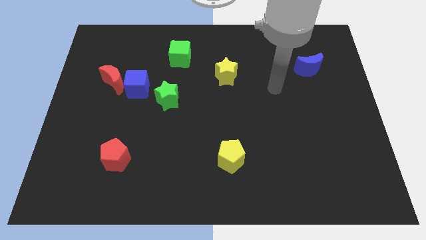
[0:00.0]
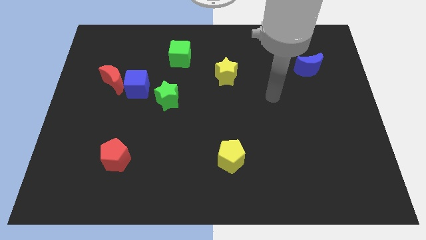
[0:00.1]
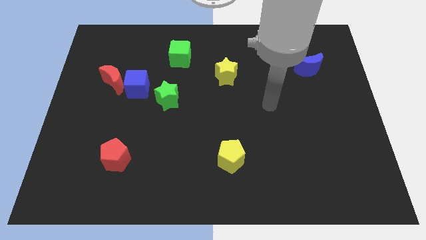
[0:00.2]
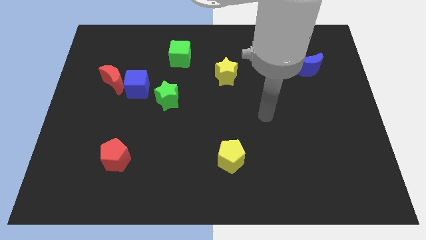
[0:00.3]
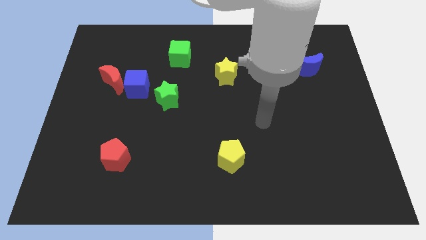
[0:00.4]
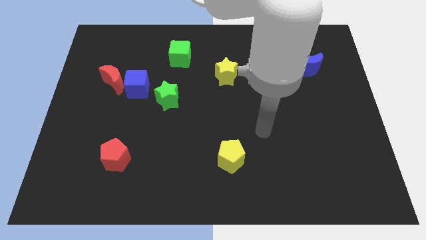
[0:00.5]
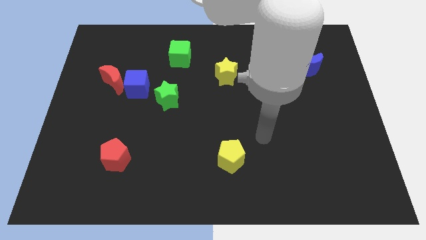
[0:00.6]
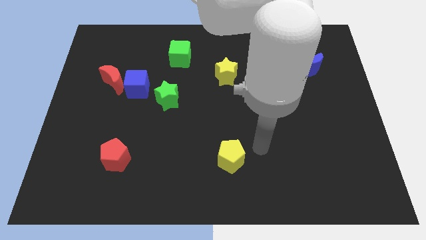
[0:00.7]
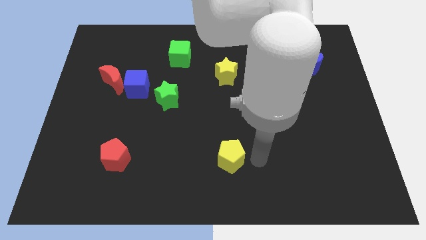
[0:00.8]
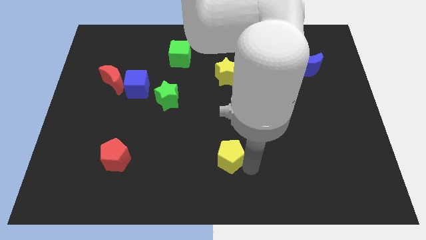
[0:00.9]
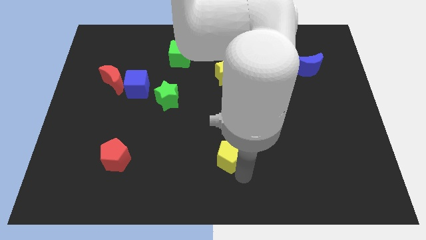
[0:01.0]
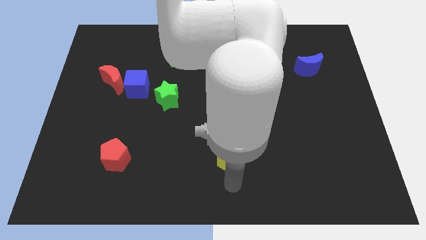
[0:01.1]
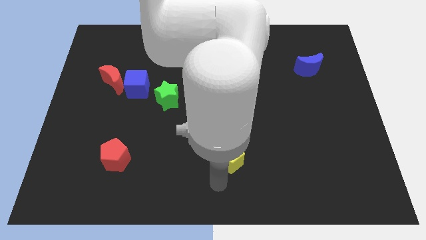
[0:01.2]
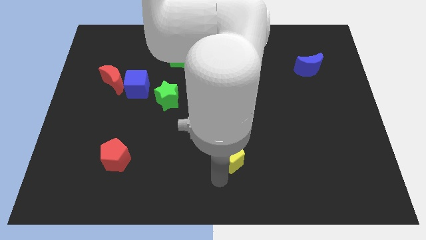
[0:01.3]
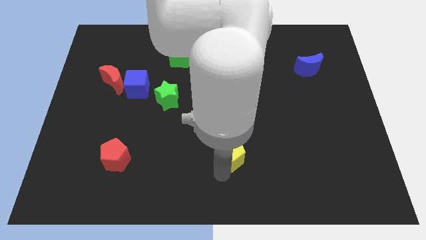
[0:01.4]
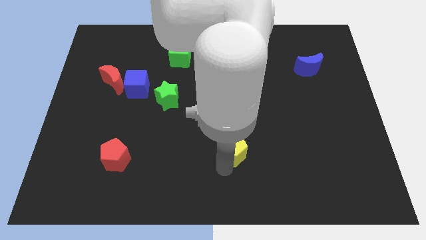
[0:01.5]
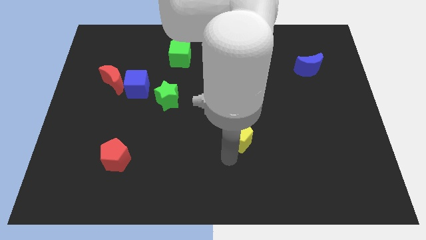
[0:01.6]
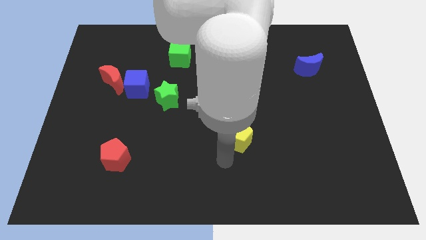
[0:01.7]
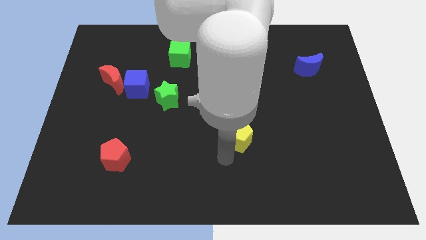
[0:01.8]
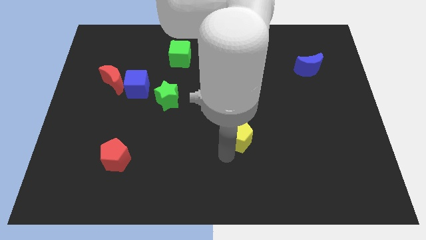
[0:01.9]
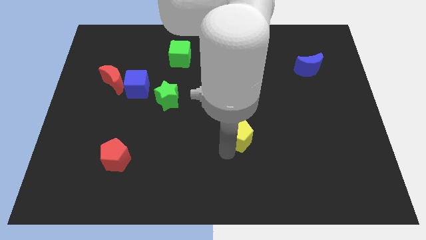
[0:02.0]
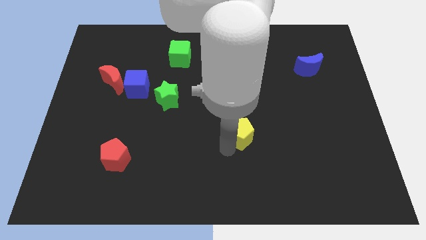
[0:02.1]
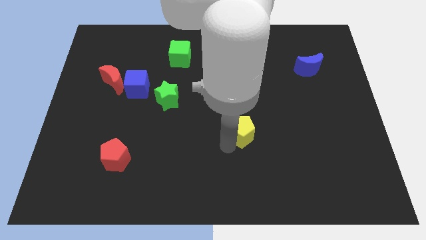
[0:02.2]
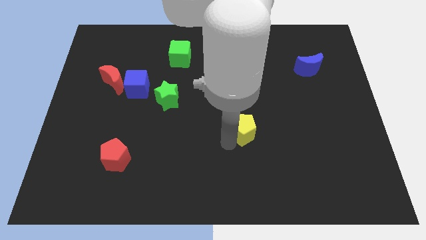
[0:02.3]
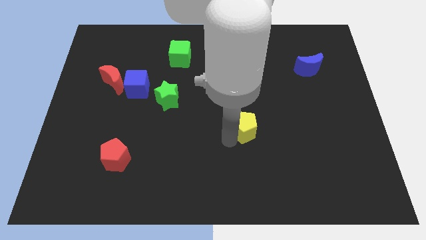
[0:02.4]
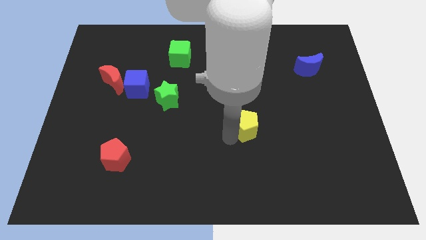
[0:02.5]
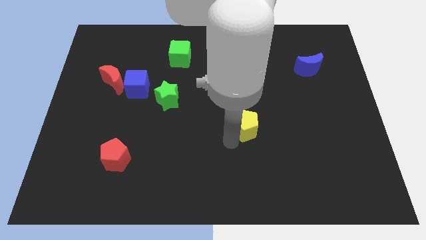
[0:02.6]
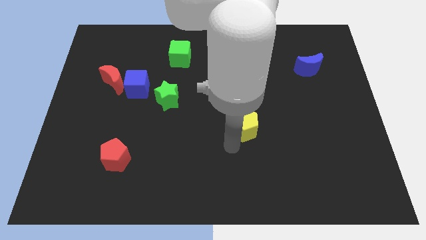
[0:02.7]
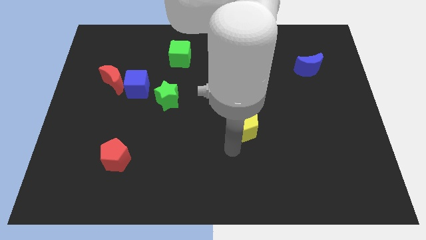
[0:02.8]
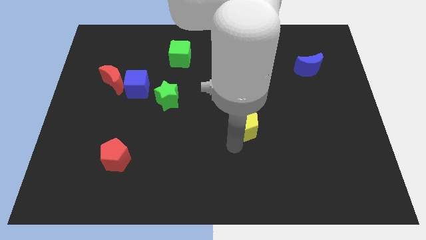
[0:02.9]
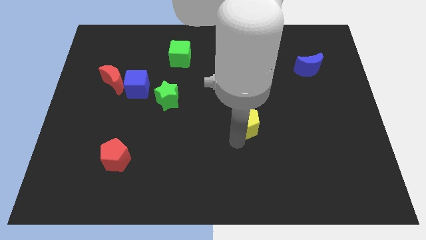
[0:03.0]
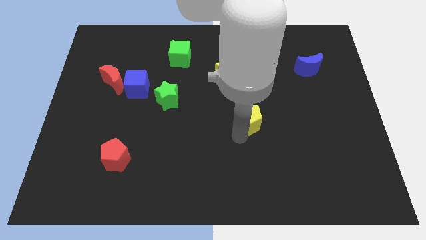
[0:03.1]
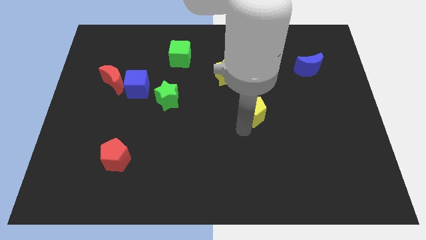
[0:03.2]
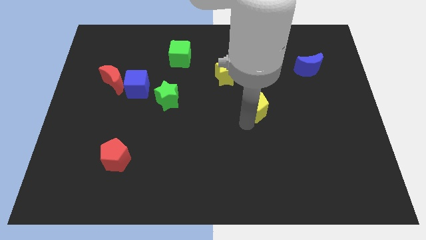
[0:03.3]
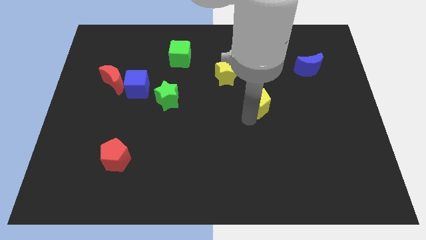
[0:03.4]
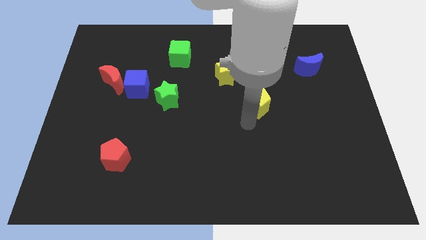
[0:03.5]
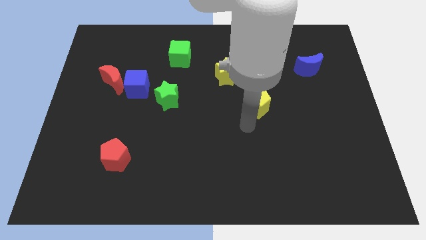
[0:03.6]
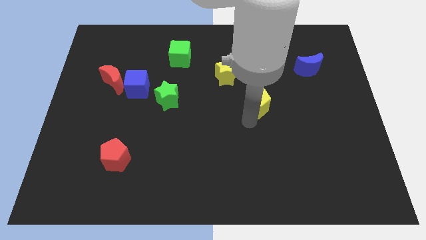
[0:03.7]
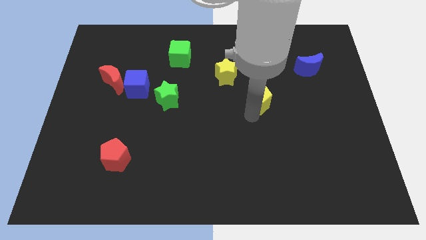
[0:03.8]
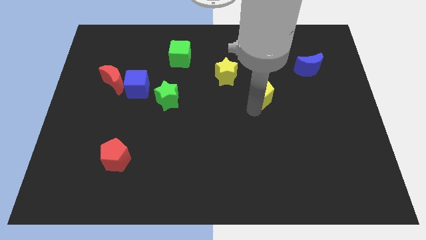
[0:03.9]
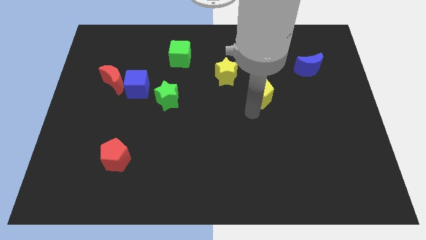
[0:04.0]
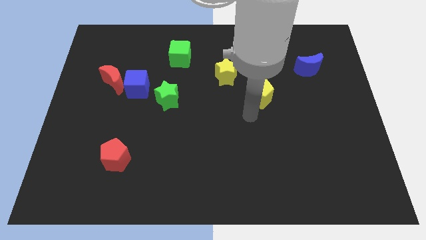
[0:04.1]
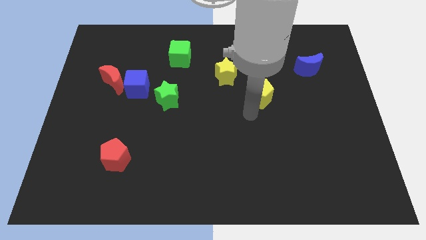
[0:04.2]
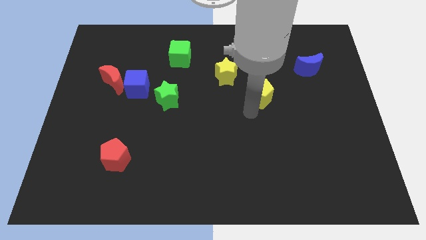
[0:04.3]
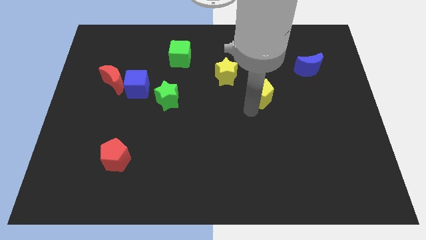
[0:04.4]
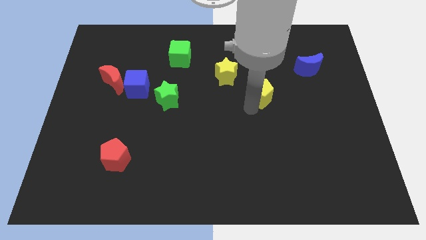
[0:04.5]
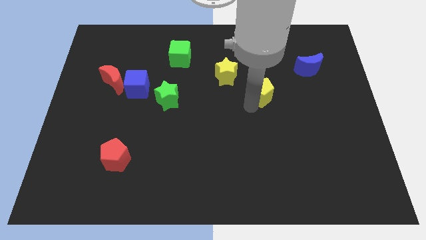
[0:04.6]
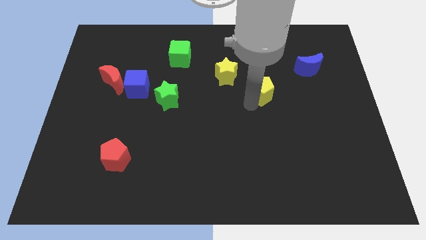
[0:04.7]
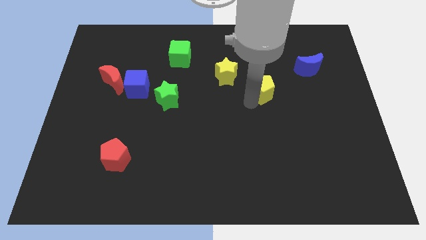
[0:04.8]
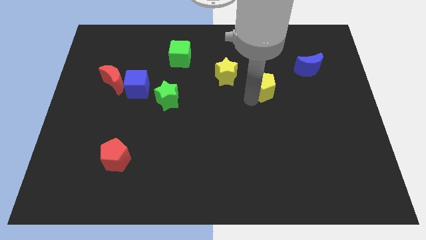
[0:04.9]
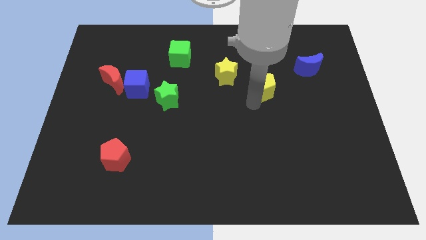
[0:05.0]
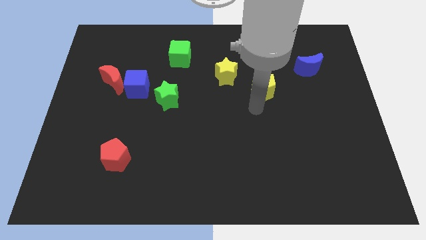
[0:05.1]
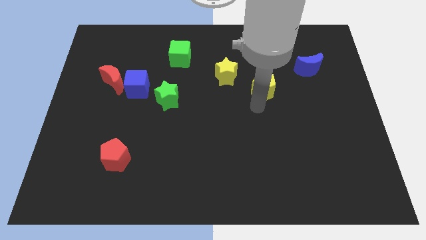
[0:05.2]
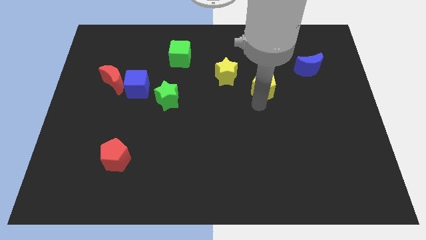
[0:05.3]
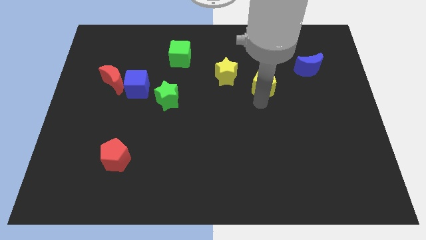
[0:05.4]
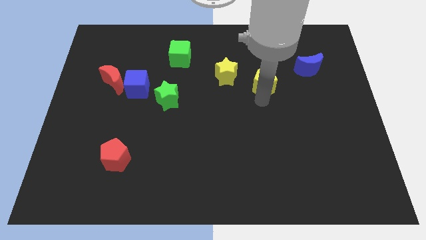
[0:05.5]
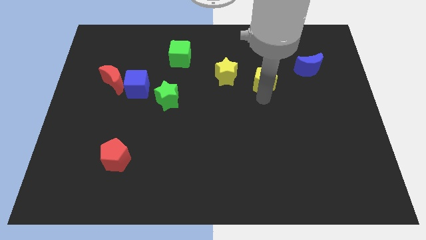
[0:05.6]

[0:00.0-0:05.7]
put the yellow pentagon to the left of the blue moon

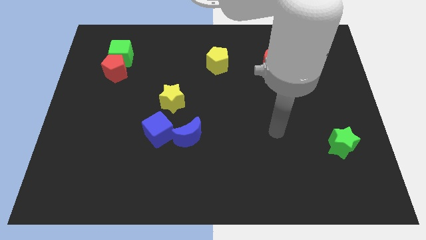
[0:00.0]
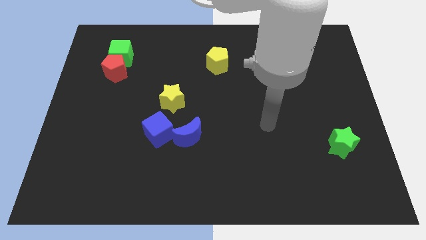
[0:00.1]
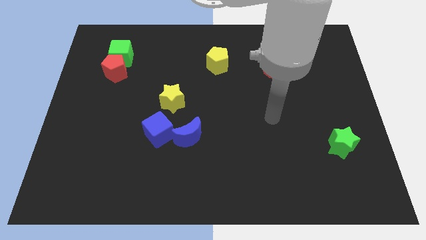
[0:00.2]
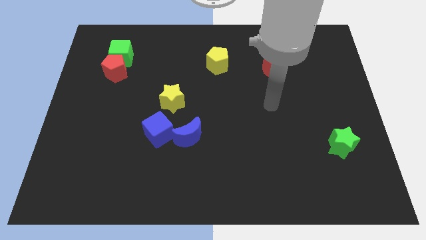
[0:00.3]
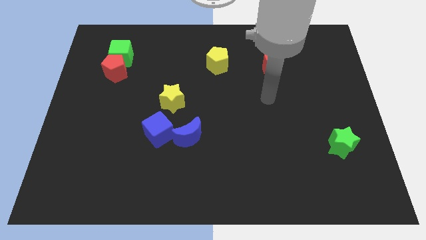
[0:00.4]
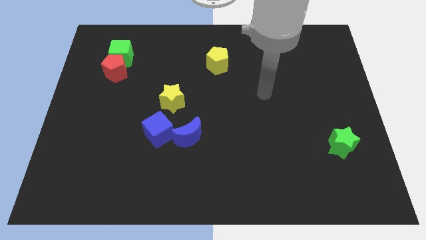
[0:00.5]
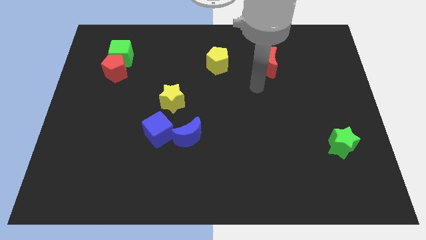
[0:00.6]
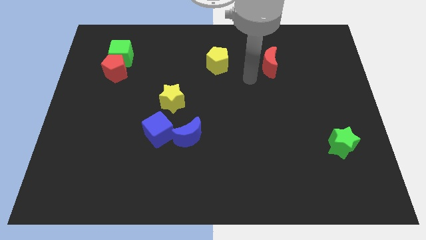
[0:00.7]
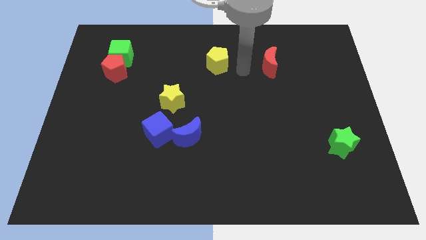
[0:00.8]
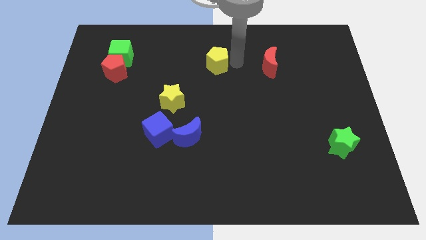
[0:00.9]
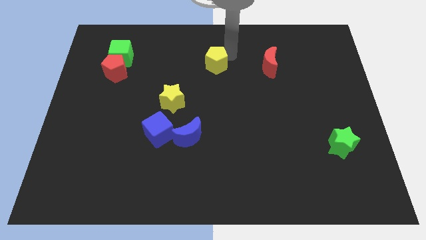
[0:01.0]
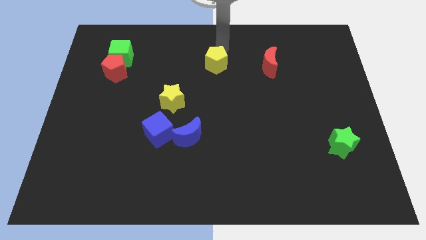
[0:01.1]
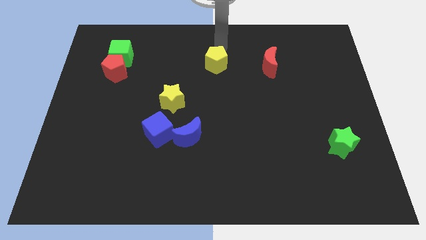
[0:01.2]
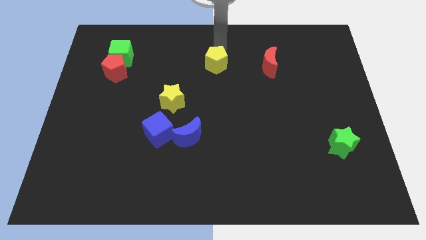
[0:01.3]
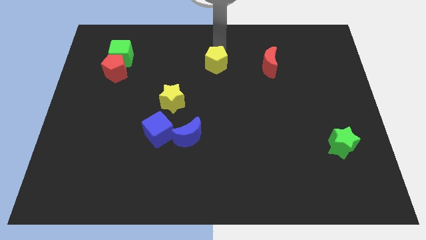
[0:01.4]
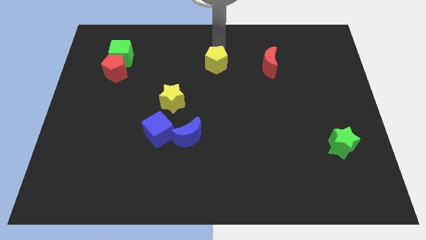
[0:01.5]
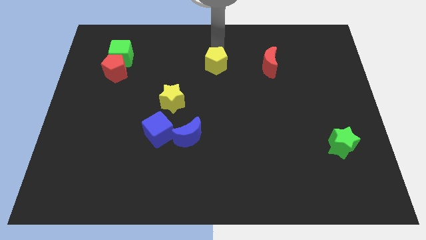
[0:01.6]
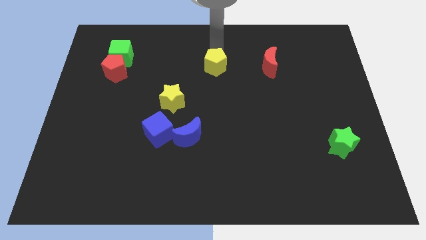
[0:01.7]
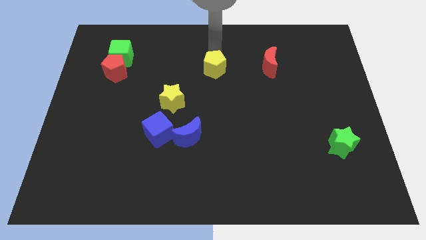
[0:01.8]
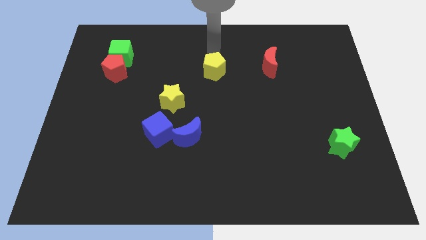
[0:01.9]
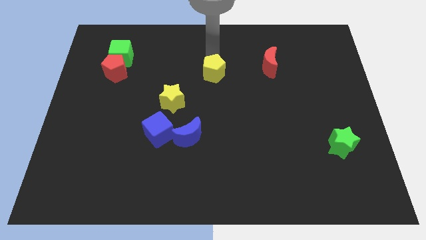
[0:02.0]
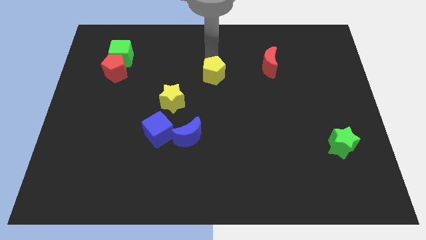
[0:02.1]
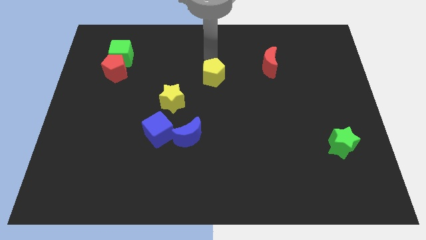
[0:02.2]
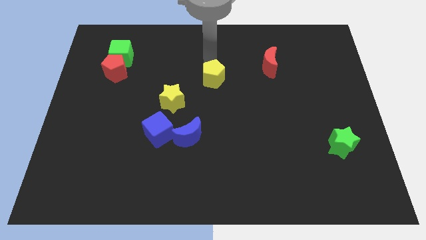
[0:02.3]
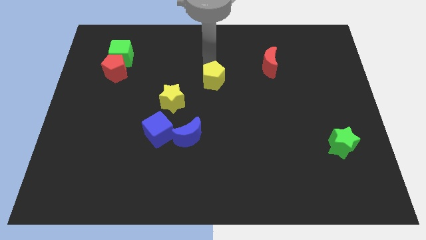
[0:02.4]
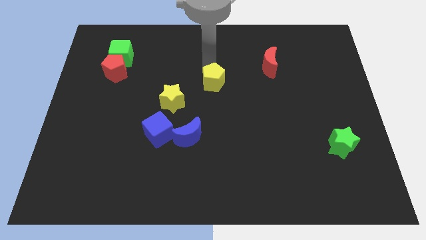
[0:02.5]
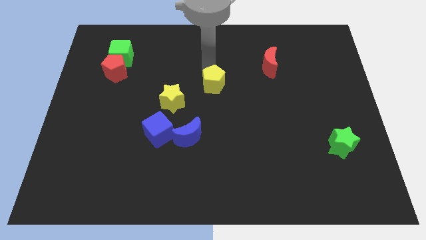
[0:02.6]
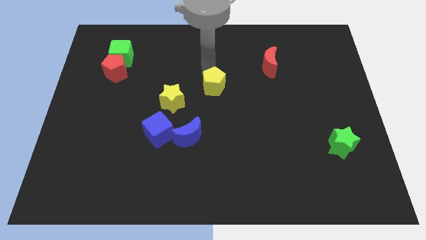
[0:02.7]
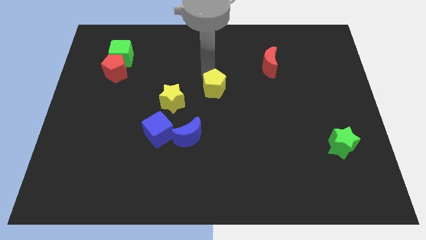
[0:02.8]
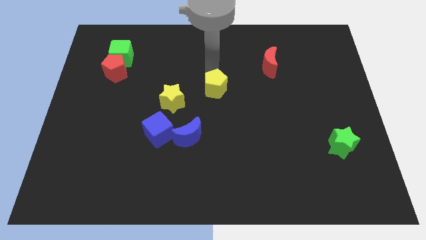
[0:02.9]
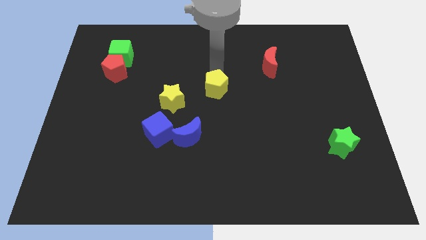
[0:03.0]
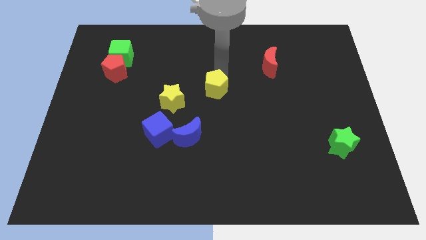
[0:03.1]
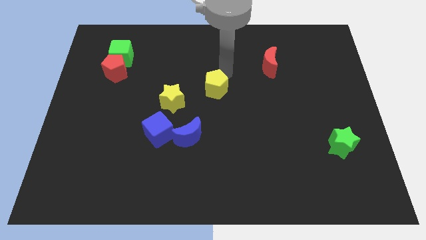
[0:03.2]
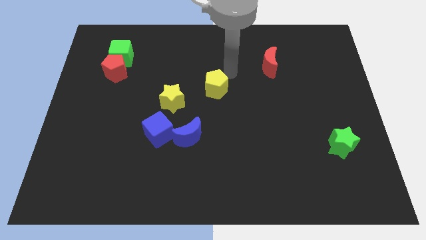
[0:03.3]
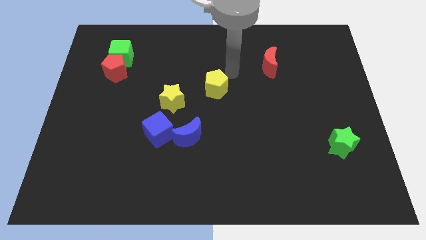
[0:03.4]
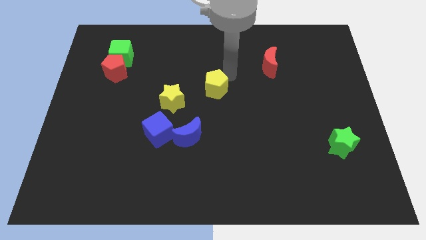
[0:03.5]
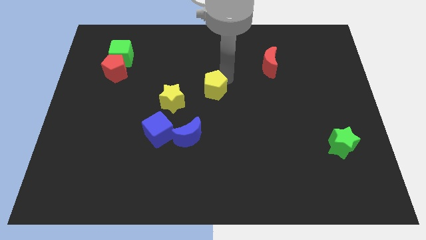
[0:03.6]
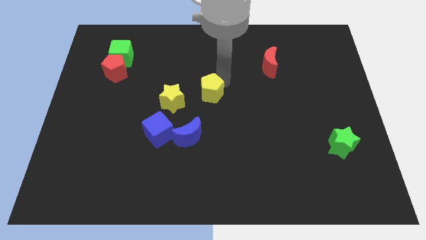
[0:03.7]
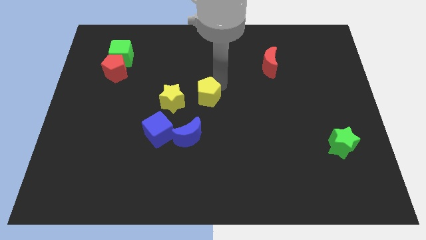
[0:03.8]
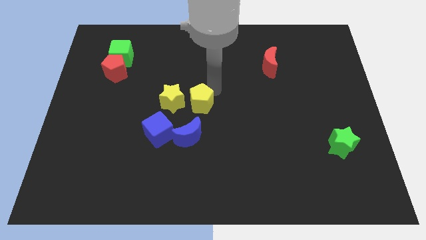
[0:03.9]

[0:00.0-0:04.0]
push the yellow pentagon to the bottom right of the yellow star
